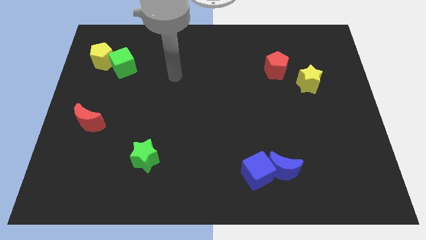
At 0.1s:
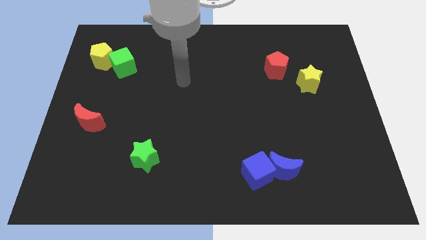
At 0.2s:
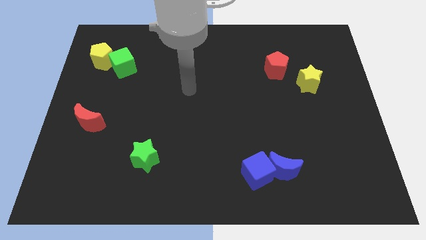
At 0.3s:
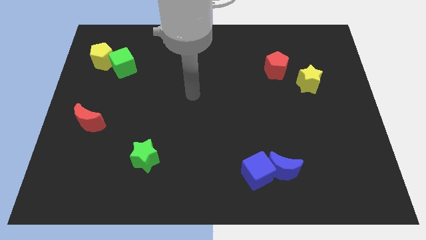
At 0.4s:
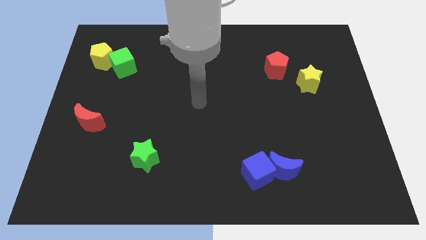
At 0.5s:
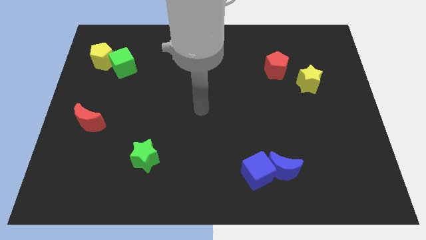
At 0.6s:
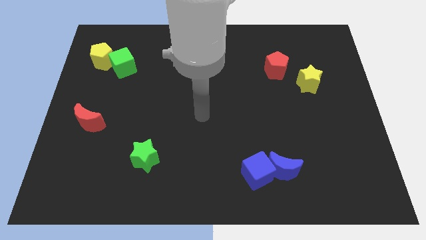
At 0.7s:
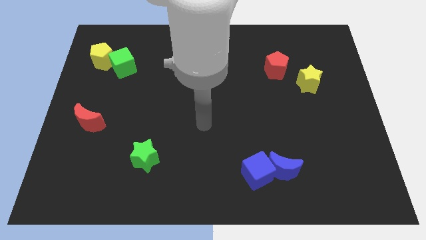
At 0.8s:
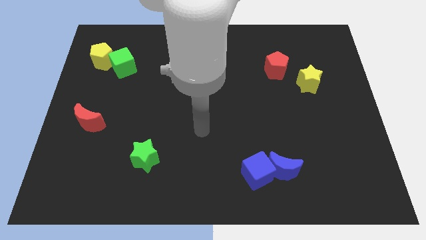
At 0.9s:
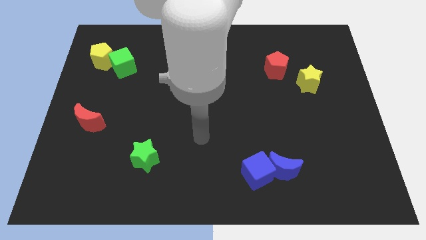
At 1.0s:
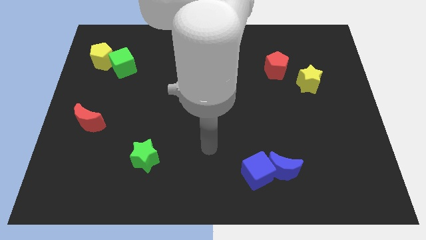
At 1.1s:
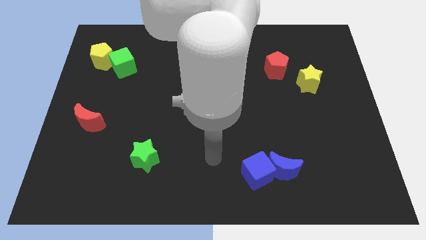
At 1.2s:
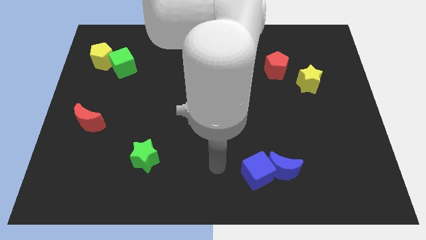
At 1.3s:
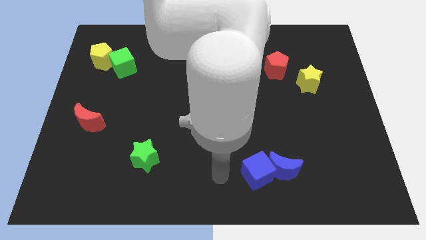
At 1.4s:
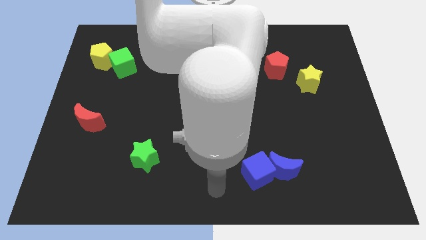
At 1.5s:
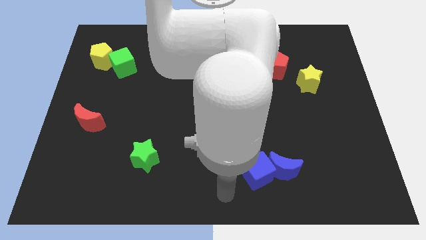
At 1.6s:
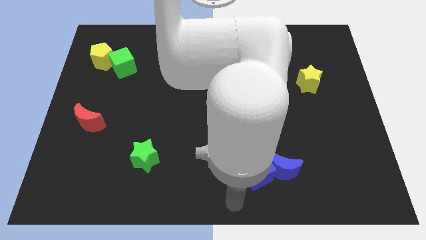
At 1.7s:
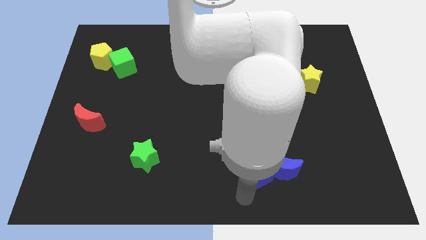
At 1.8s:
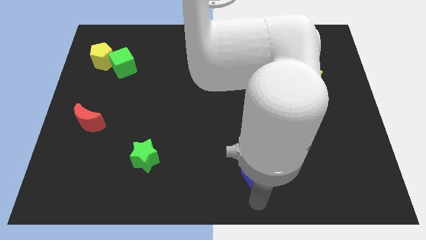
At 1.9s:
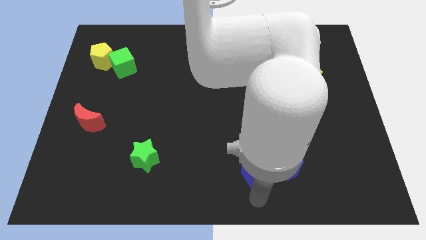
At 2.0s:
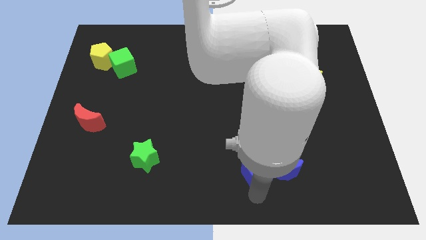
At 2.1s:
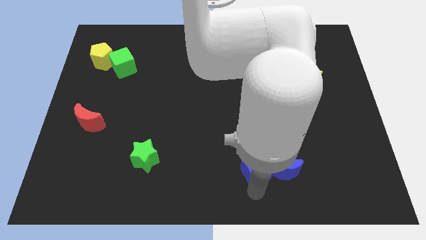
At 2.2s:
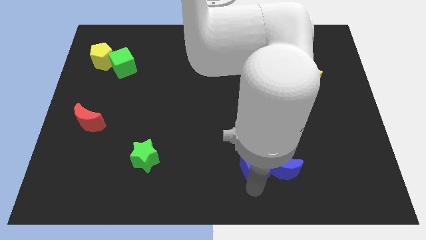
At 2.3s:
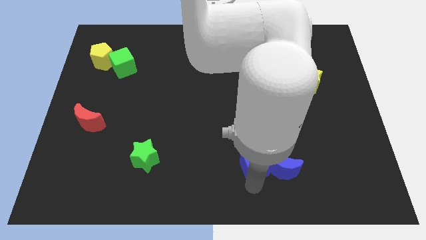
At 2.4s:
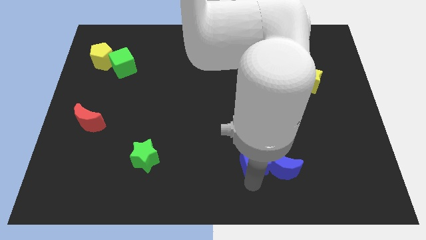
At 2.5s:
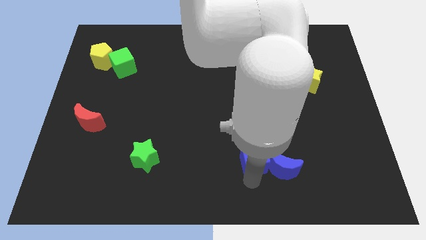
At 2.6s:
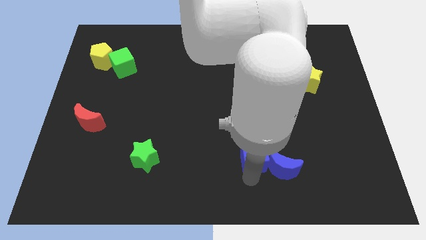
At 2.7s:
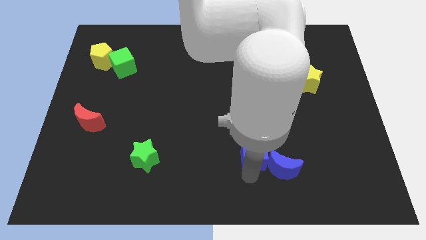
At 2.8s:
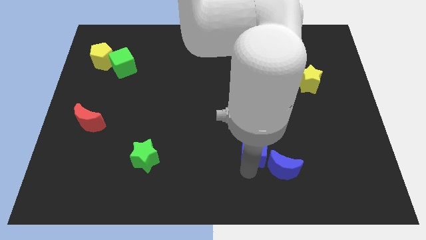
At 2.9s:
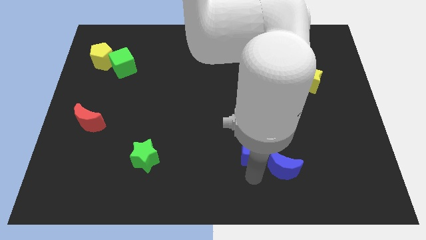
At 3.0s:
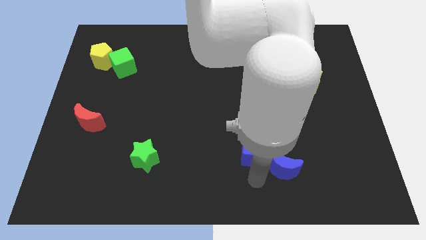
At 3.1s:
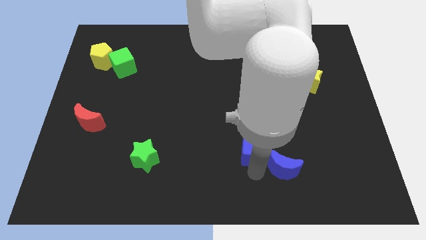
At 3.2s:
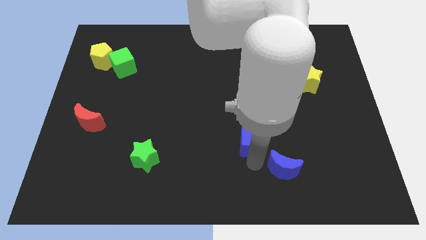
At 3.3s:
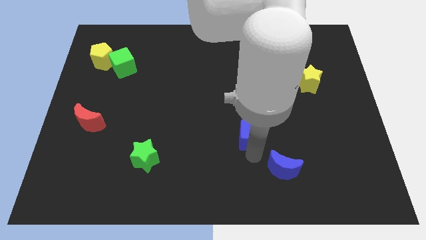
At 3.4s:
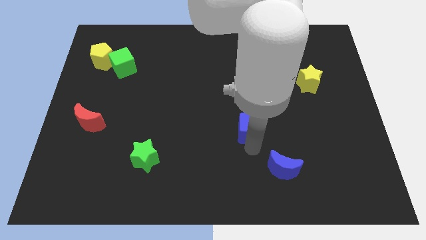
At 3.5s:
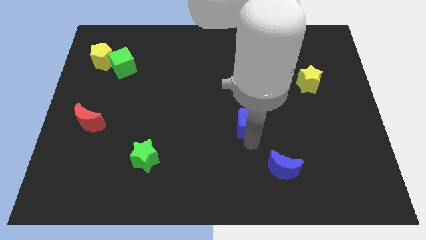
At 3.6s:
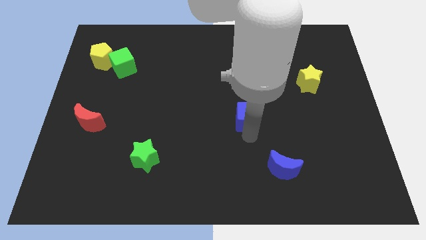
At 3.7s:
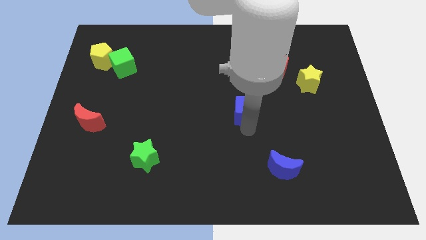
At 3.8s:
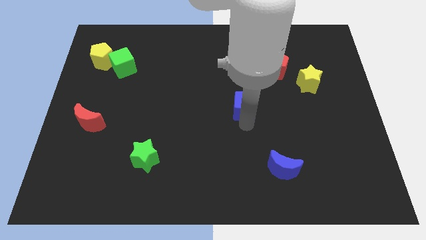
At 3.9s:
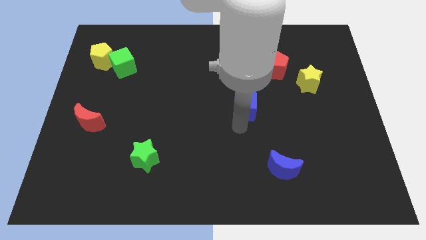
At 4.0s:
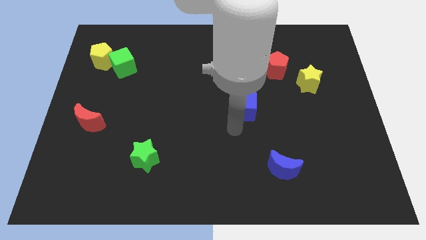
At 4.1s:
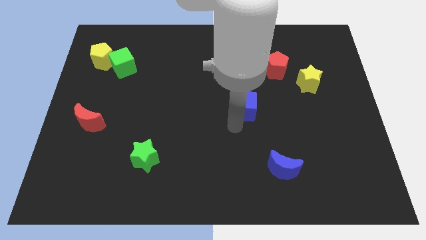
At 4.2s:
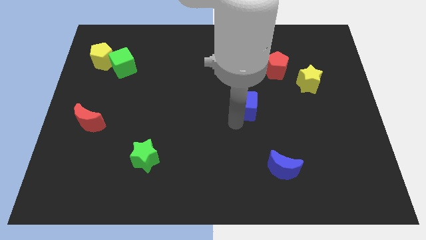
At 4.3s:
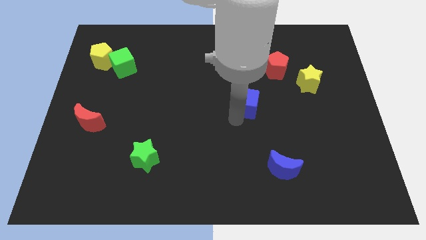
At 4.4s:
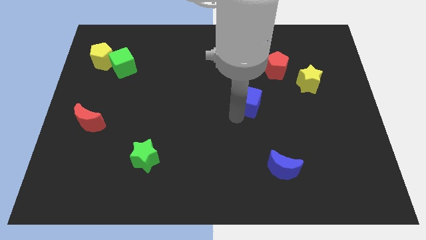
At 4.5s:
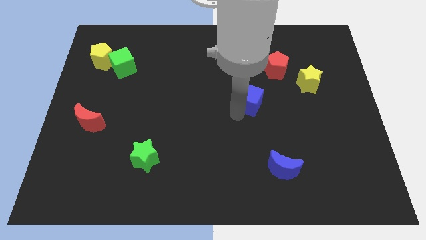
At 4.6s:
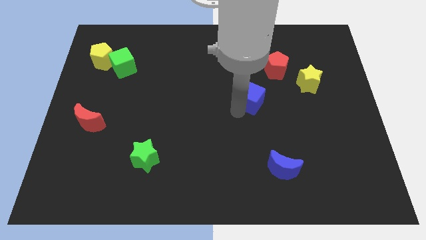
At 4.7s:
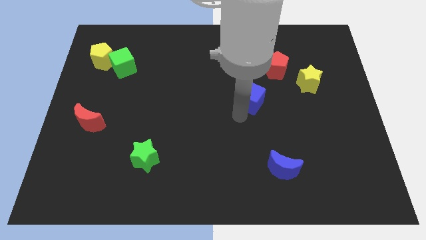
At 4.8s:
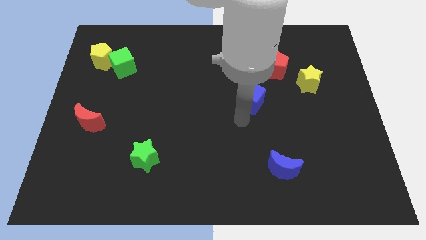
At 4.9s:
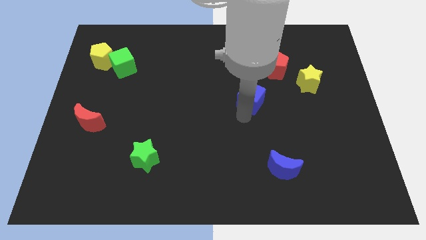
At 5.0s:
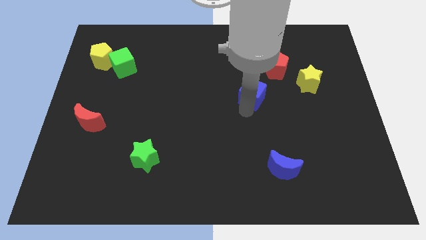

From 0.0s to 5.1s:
put the blue cube to the bottom left of the red pentagon

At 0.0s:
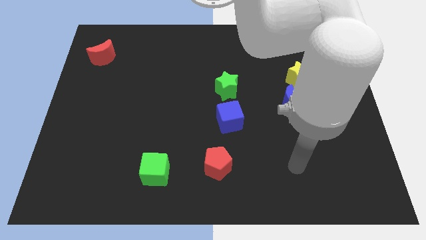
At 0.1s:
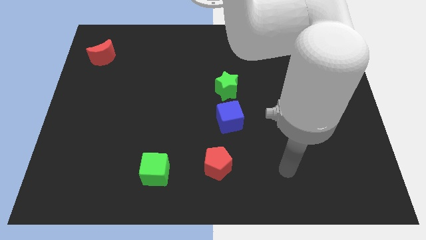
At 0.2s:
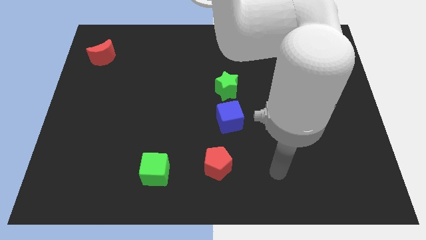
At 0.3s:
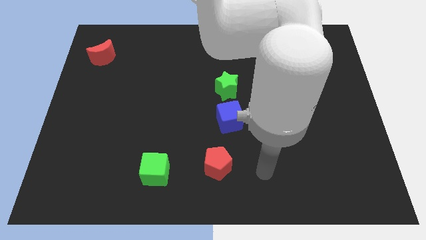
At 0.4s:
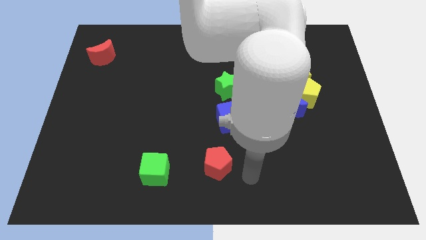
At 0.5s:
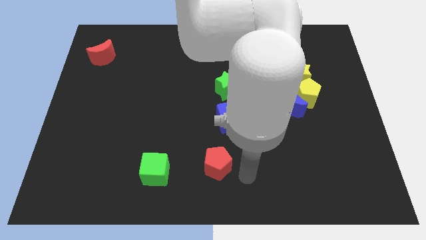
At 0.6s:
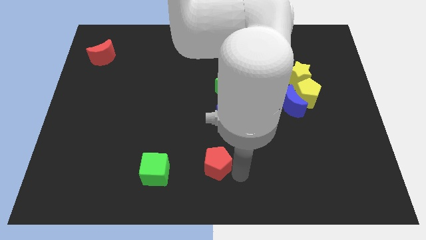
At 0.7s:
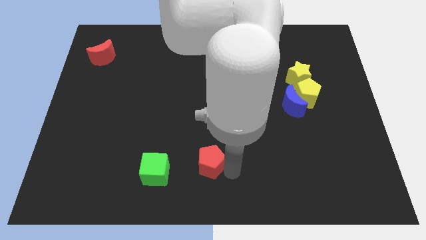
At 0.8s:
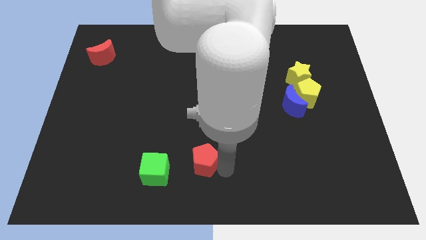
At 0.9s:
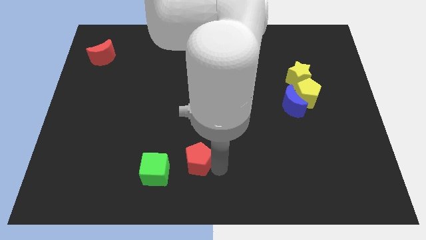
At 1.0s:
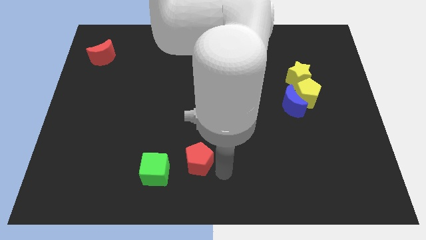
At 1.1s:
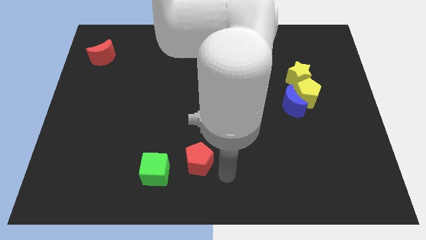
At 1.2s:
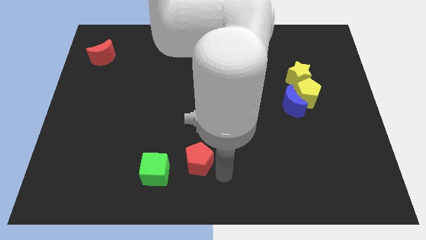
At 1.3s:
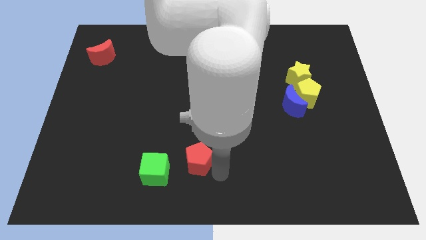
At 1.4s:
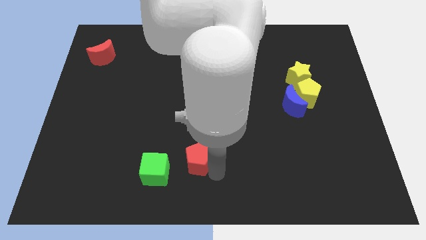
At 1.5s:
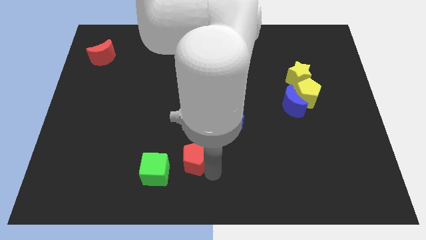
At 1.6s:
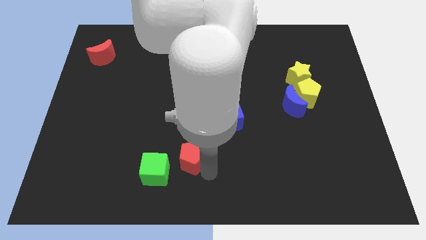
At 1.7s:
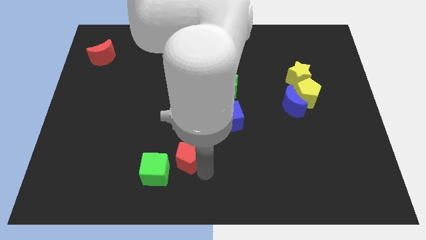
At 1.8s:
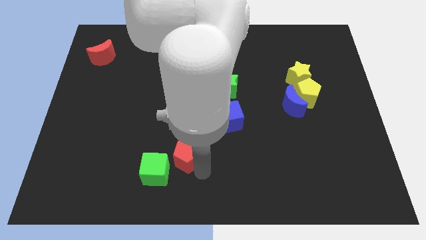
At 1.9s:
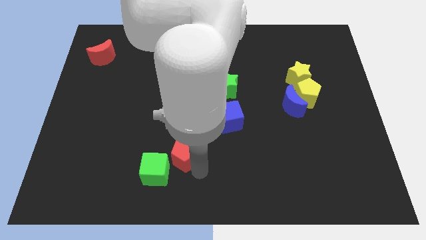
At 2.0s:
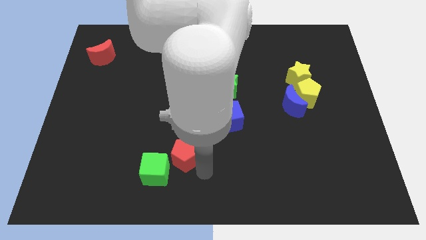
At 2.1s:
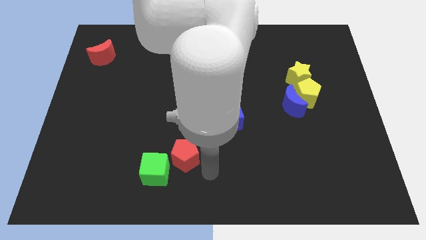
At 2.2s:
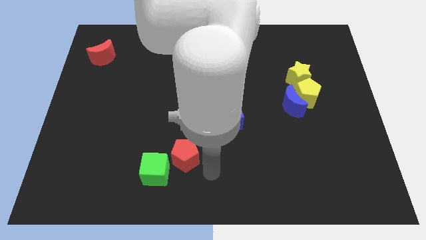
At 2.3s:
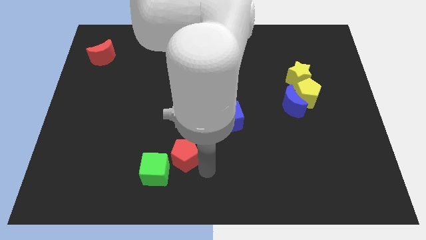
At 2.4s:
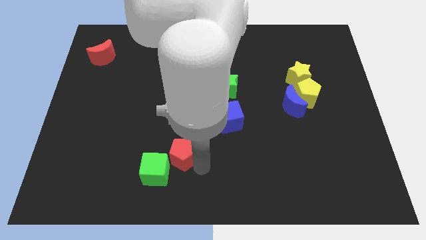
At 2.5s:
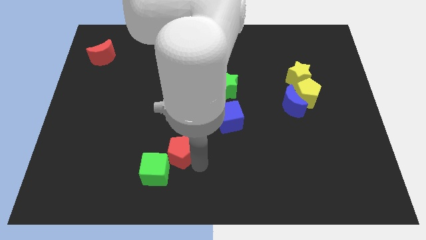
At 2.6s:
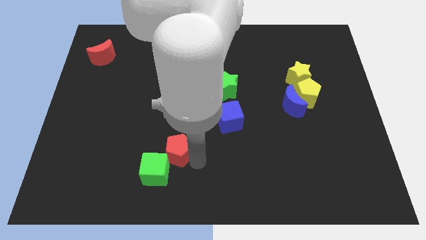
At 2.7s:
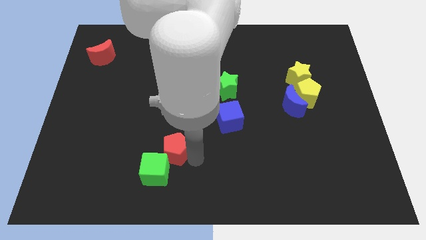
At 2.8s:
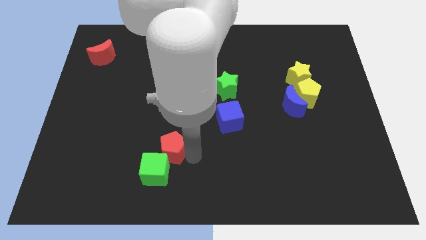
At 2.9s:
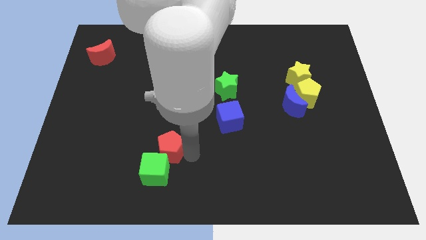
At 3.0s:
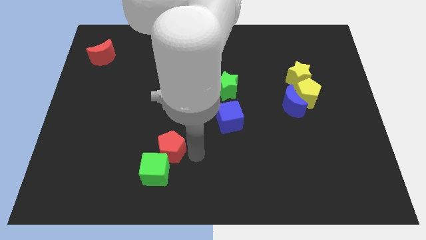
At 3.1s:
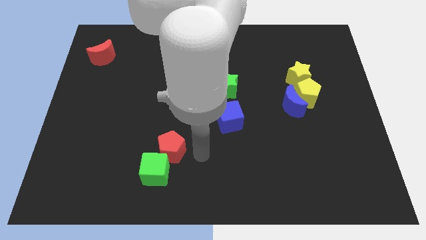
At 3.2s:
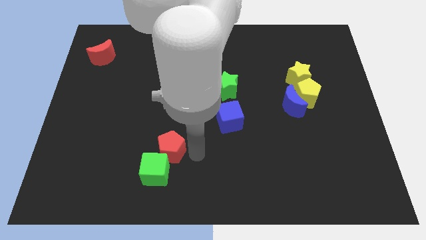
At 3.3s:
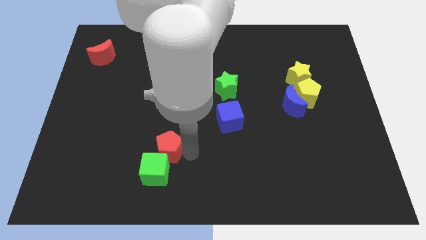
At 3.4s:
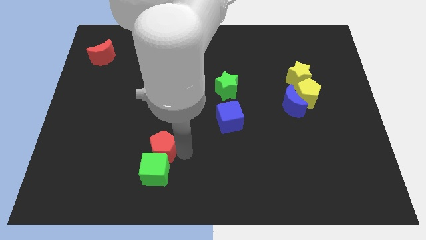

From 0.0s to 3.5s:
push the red pentagon diagonally up and to the left of the green cube
